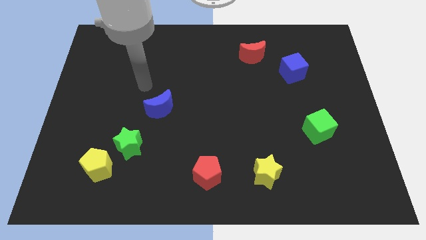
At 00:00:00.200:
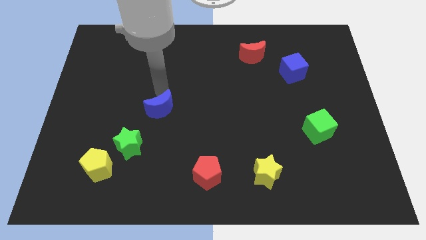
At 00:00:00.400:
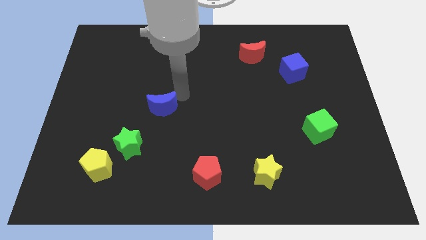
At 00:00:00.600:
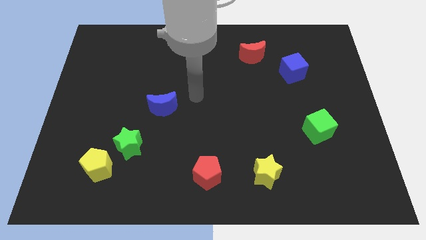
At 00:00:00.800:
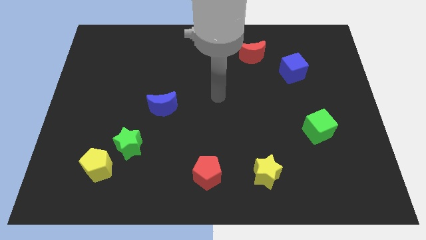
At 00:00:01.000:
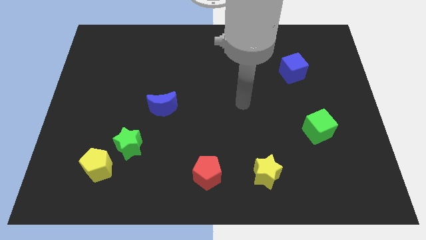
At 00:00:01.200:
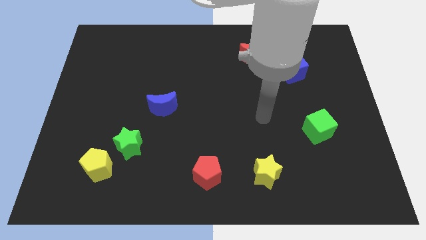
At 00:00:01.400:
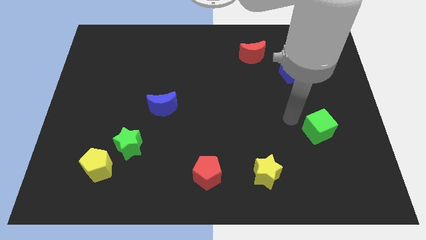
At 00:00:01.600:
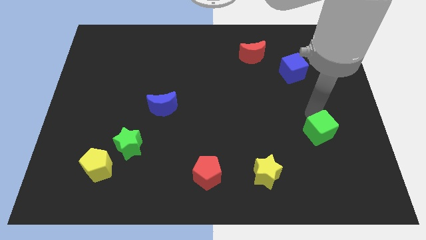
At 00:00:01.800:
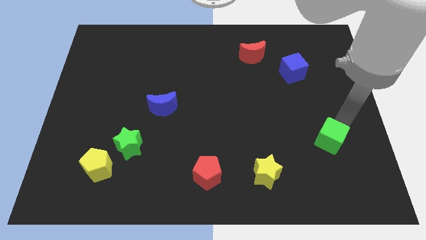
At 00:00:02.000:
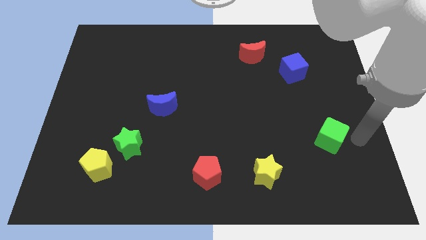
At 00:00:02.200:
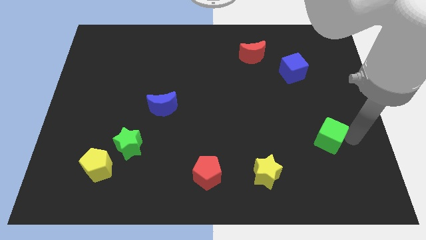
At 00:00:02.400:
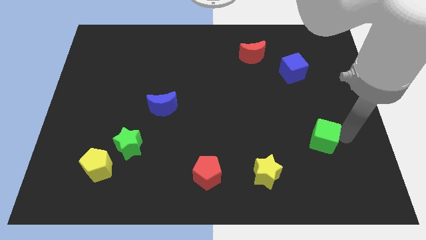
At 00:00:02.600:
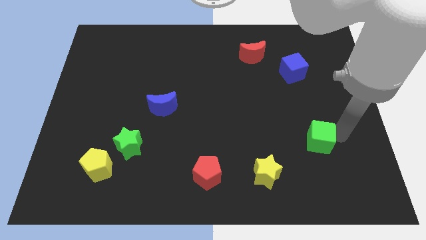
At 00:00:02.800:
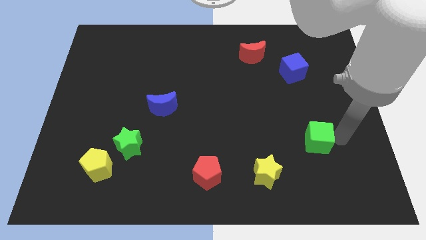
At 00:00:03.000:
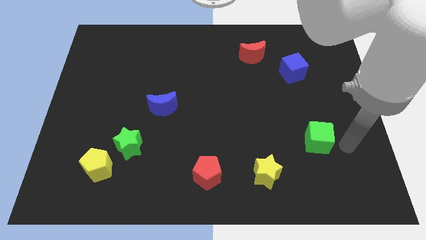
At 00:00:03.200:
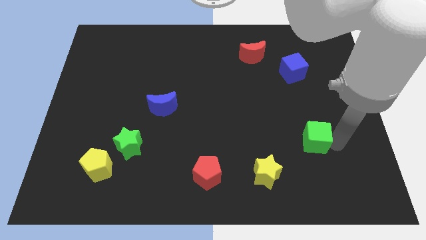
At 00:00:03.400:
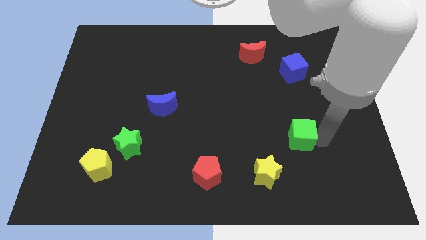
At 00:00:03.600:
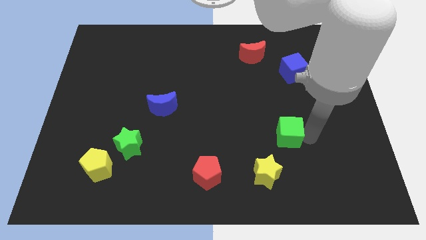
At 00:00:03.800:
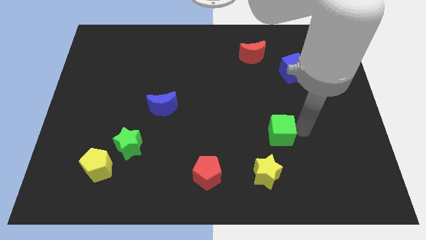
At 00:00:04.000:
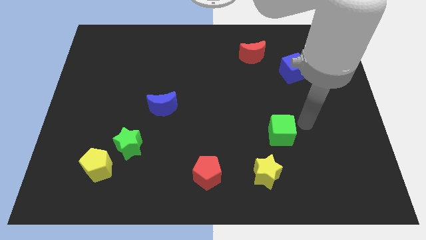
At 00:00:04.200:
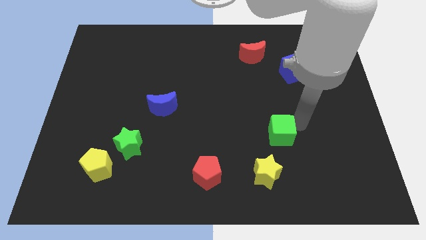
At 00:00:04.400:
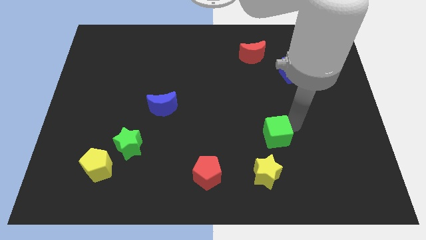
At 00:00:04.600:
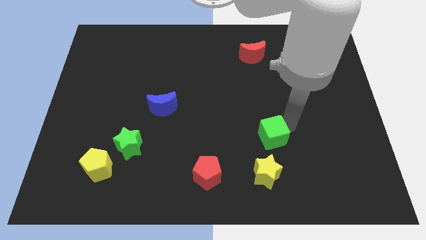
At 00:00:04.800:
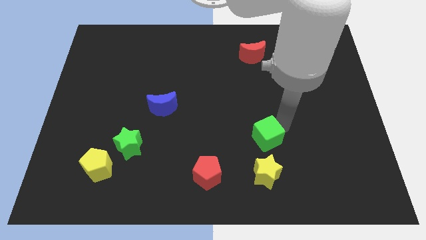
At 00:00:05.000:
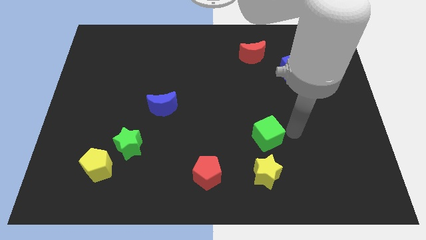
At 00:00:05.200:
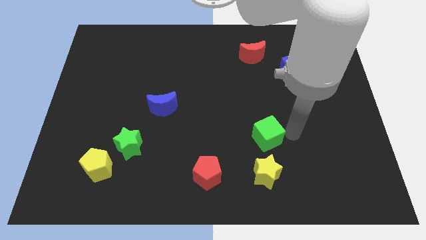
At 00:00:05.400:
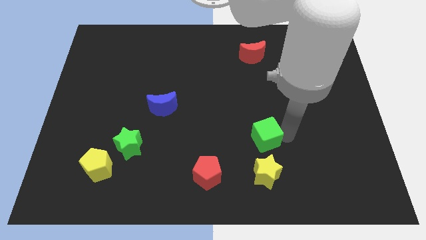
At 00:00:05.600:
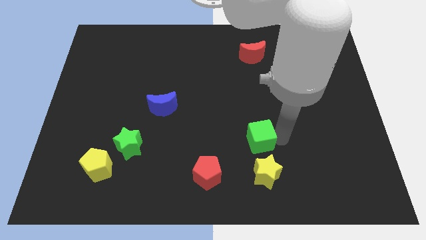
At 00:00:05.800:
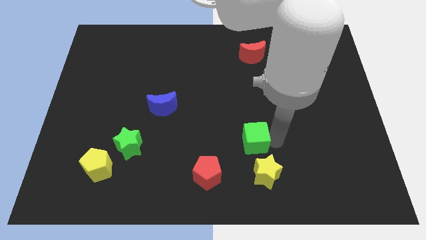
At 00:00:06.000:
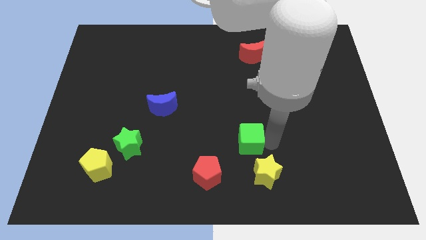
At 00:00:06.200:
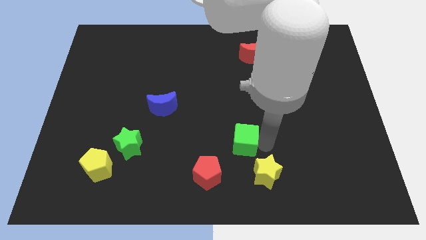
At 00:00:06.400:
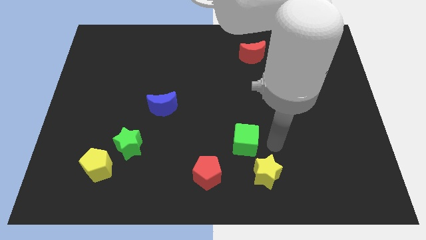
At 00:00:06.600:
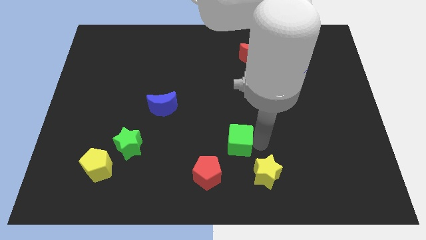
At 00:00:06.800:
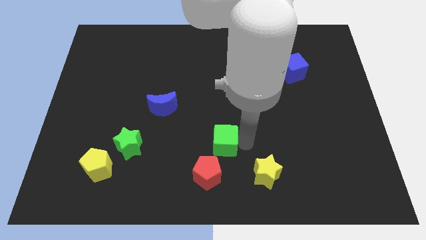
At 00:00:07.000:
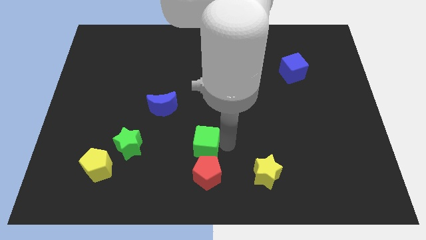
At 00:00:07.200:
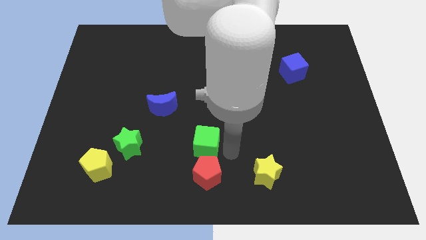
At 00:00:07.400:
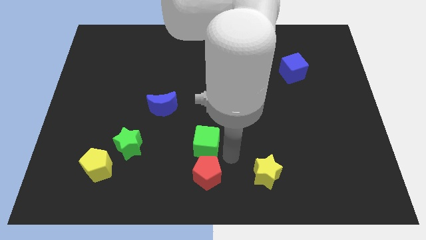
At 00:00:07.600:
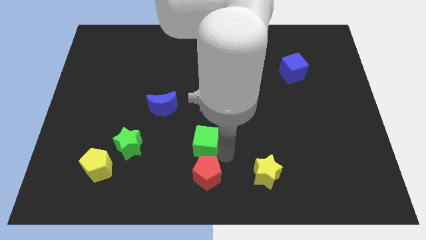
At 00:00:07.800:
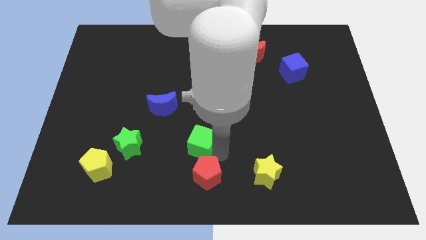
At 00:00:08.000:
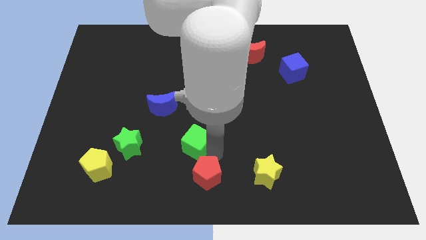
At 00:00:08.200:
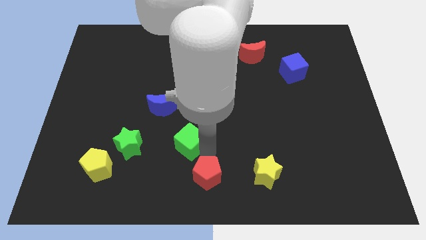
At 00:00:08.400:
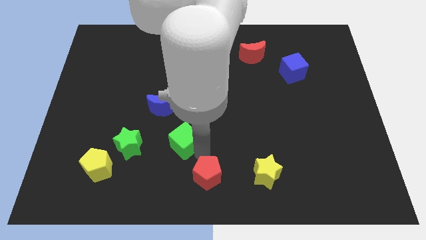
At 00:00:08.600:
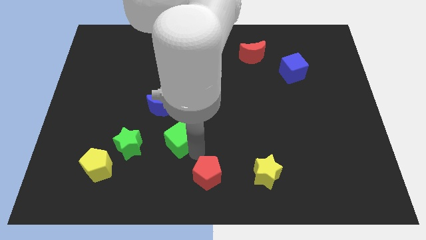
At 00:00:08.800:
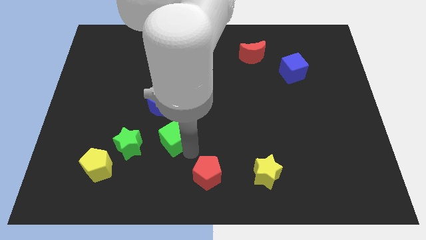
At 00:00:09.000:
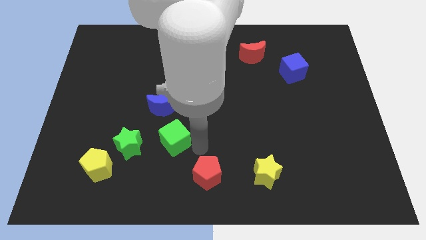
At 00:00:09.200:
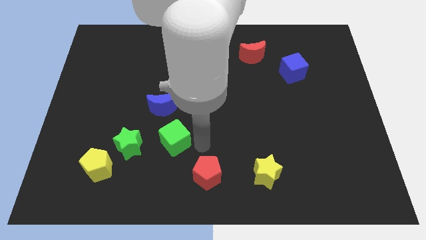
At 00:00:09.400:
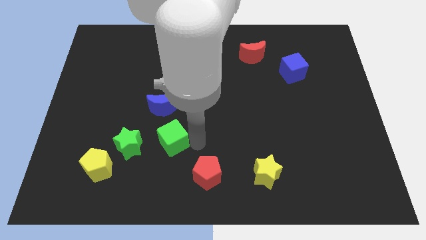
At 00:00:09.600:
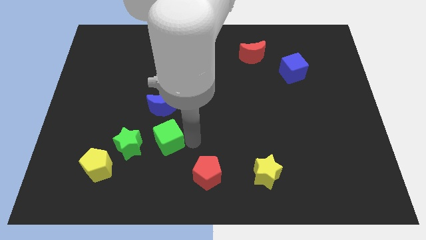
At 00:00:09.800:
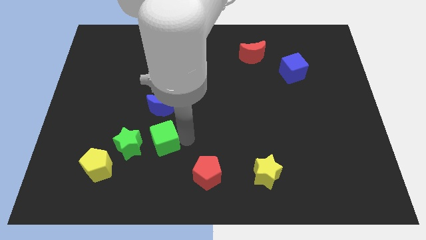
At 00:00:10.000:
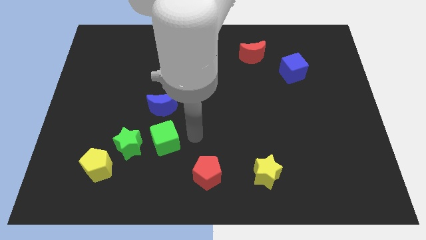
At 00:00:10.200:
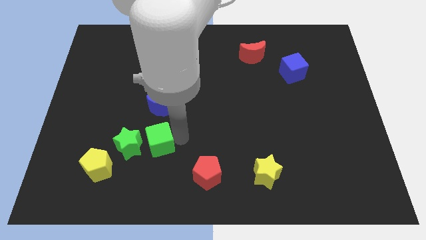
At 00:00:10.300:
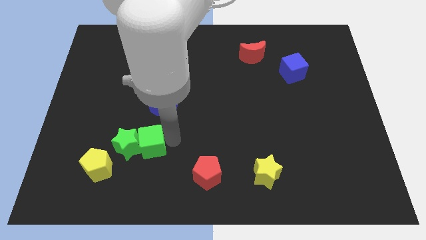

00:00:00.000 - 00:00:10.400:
move the green cube close to the green star

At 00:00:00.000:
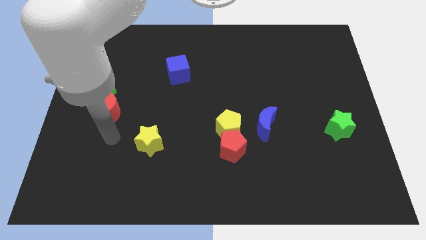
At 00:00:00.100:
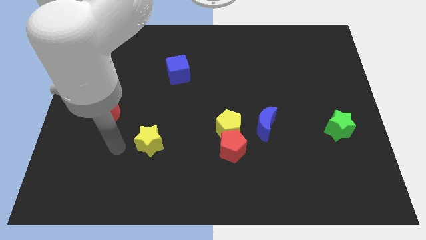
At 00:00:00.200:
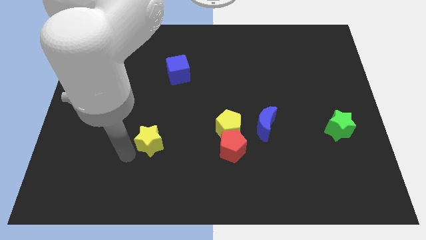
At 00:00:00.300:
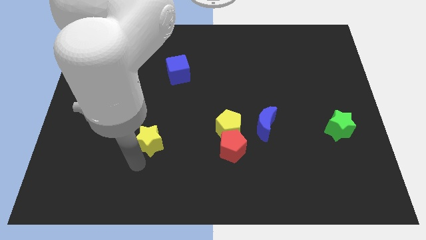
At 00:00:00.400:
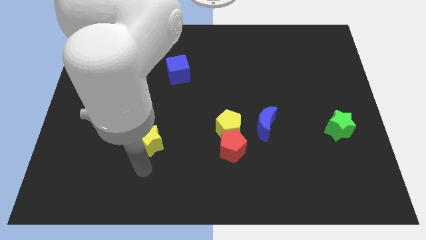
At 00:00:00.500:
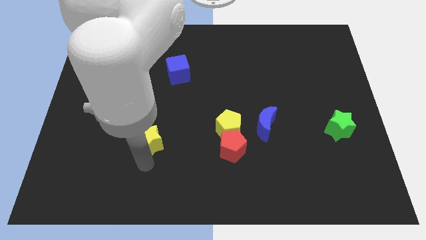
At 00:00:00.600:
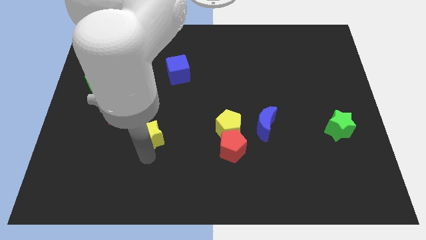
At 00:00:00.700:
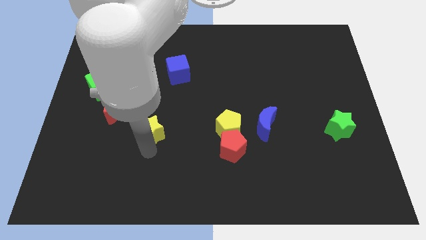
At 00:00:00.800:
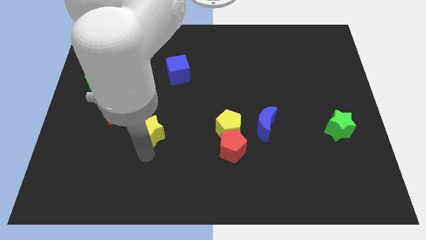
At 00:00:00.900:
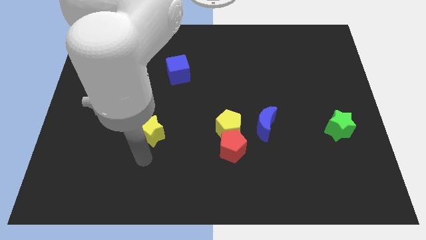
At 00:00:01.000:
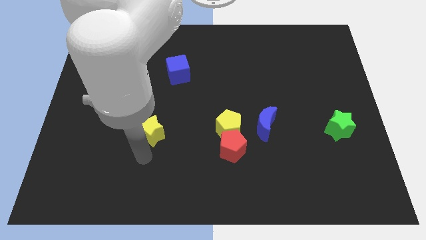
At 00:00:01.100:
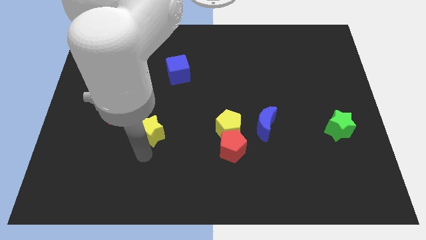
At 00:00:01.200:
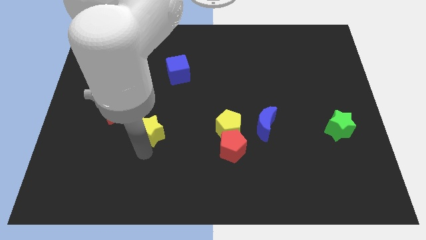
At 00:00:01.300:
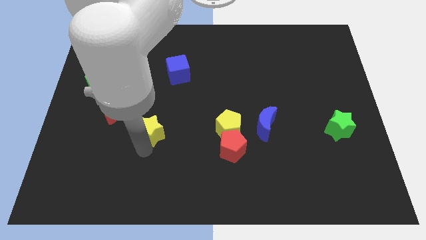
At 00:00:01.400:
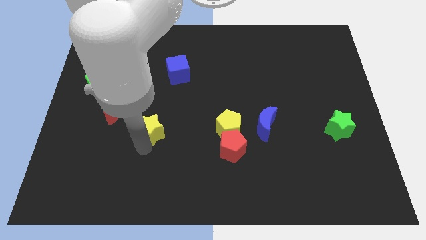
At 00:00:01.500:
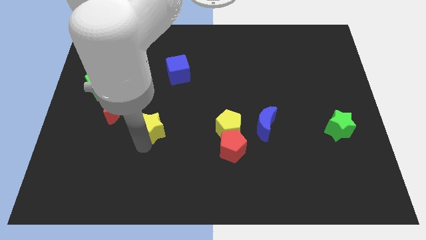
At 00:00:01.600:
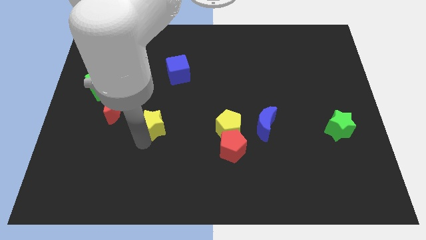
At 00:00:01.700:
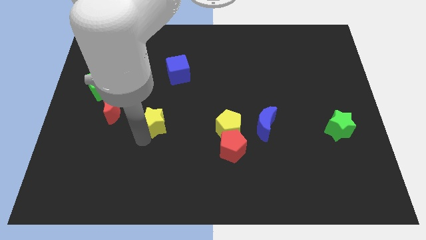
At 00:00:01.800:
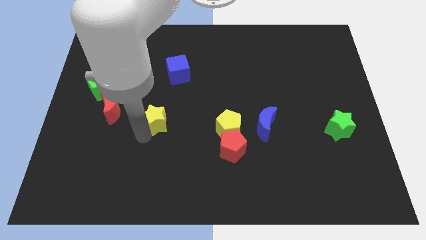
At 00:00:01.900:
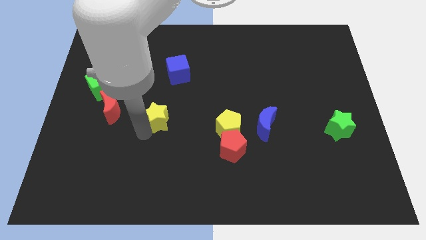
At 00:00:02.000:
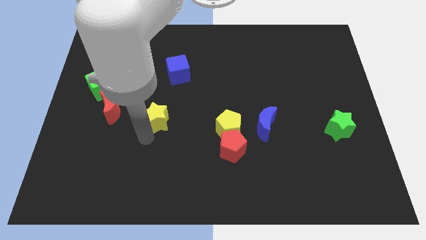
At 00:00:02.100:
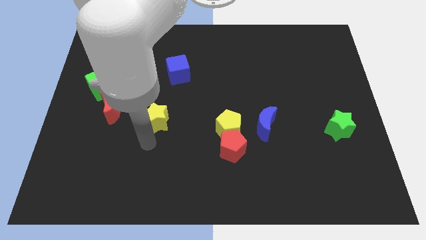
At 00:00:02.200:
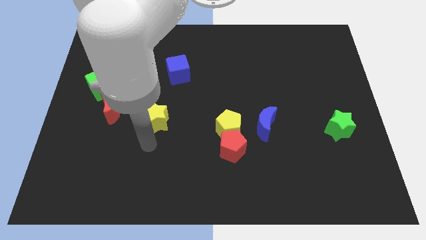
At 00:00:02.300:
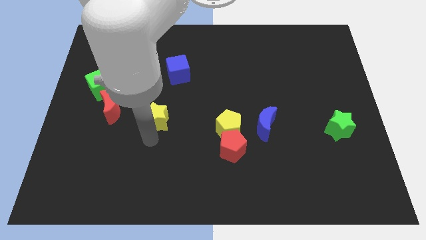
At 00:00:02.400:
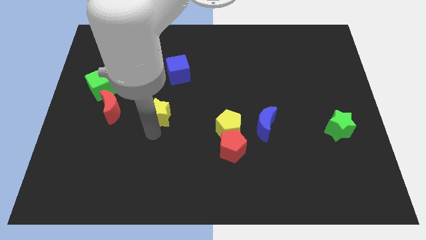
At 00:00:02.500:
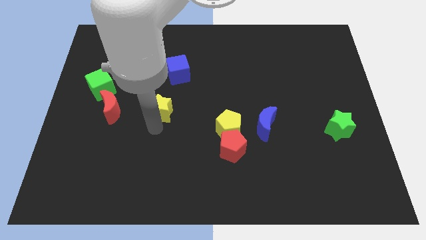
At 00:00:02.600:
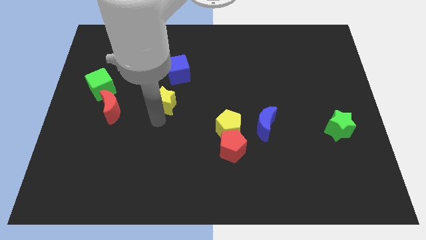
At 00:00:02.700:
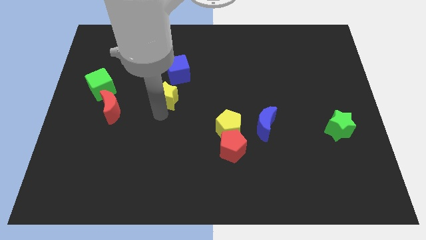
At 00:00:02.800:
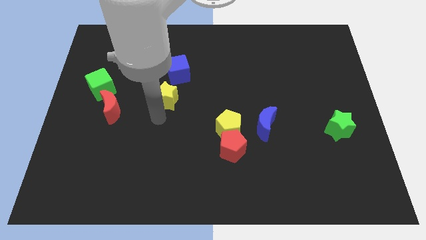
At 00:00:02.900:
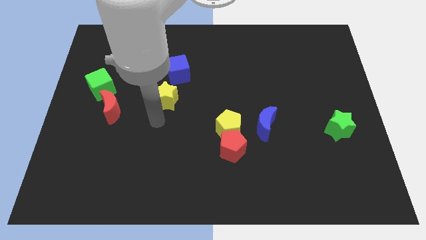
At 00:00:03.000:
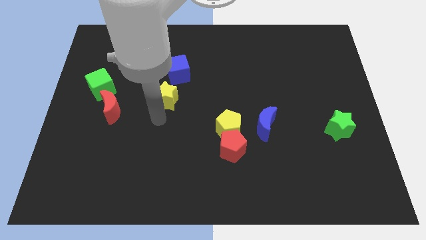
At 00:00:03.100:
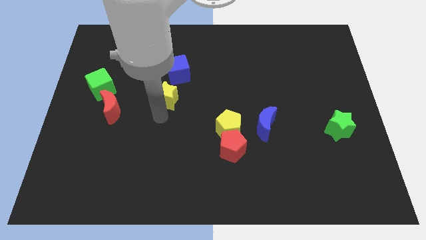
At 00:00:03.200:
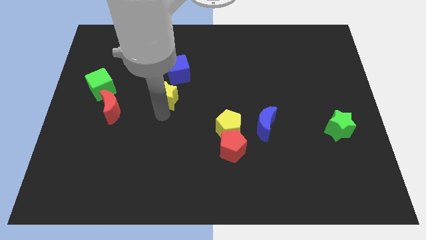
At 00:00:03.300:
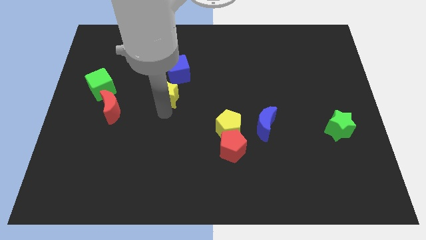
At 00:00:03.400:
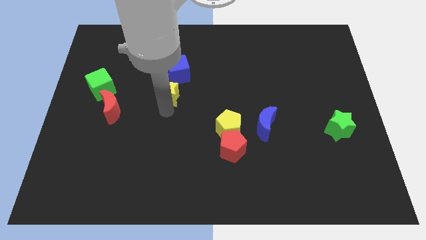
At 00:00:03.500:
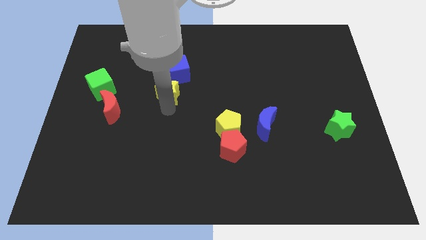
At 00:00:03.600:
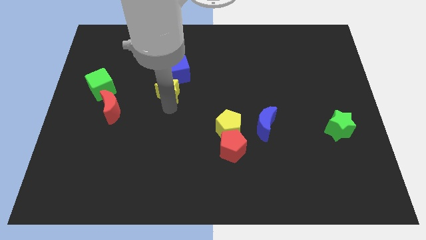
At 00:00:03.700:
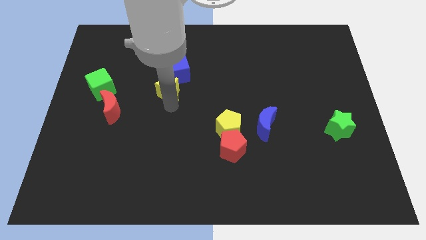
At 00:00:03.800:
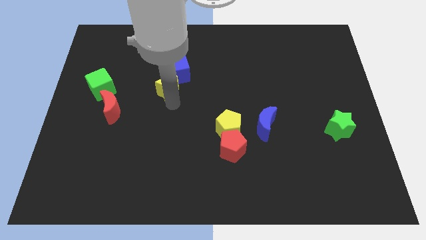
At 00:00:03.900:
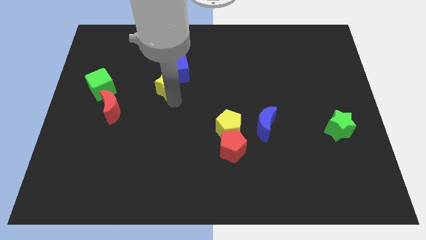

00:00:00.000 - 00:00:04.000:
move the yellow star next to the blue cube
